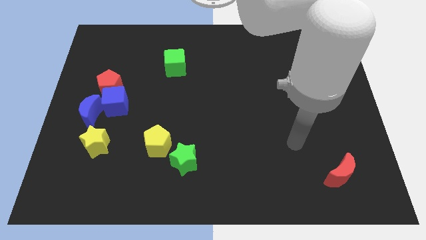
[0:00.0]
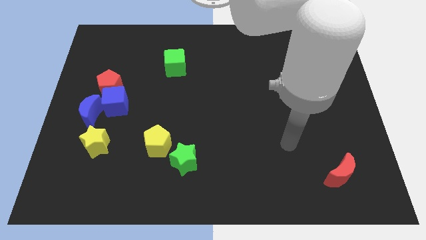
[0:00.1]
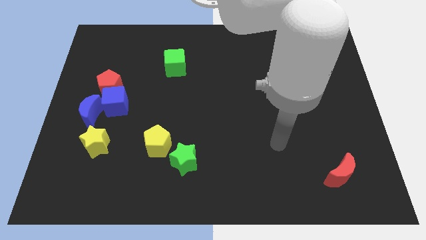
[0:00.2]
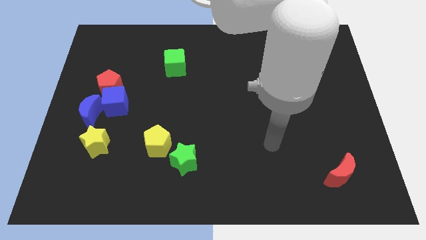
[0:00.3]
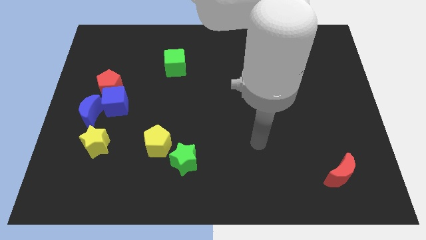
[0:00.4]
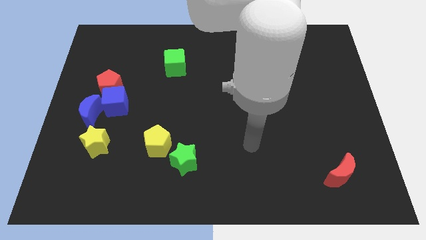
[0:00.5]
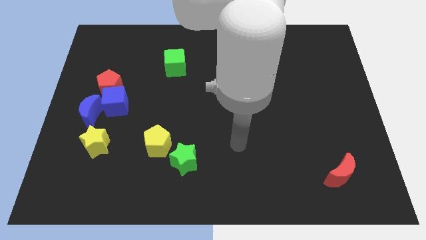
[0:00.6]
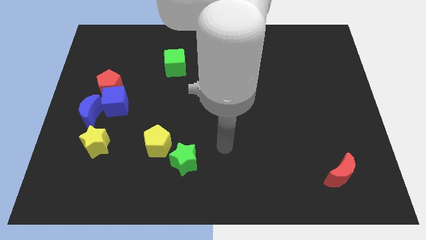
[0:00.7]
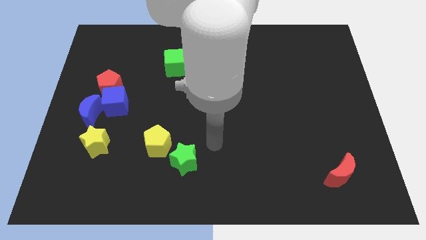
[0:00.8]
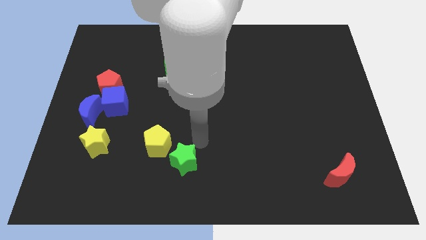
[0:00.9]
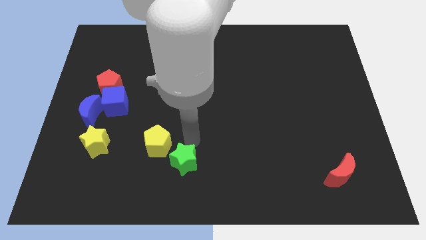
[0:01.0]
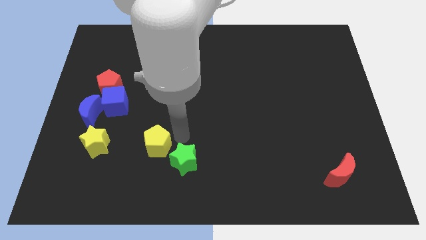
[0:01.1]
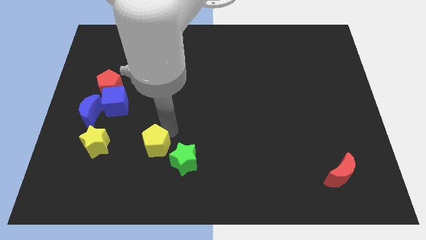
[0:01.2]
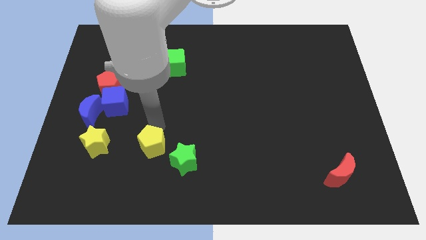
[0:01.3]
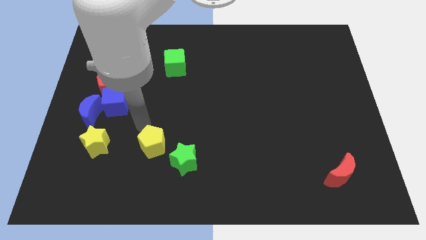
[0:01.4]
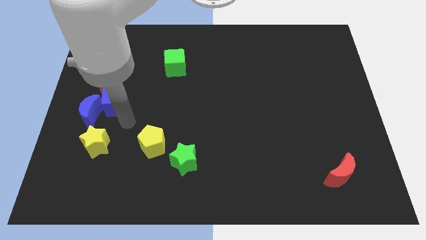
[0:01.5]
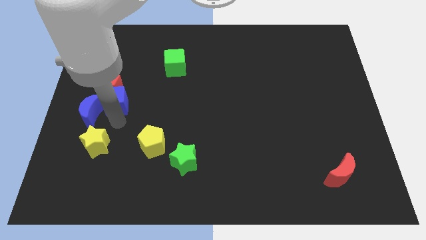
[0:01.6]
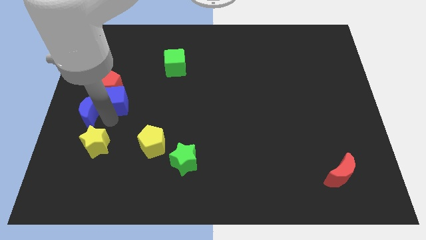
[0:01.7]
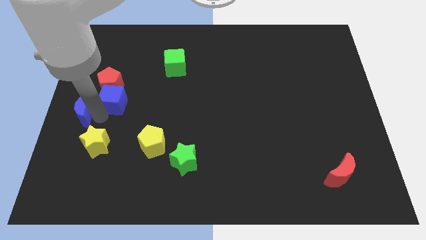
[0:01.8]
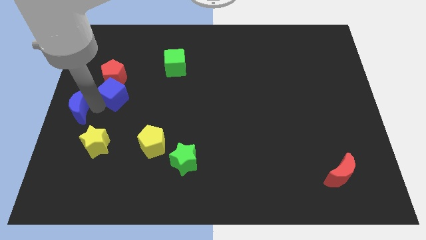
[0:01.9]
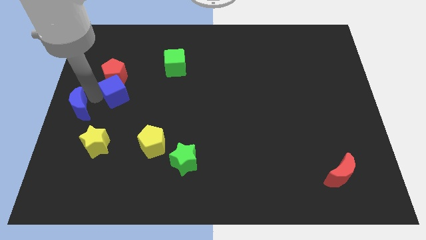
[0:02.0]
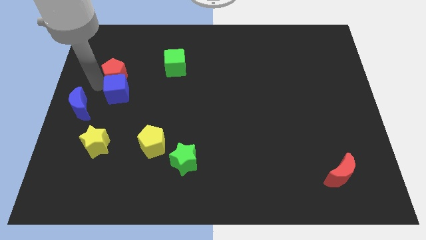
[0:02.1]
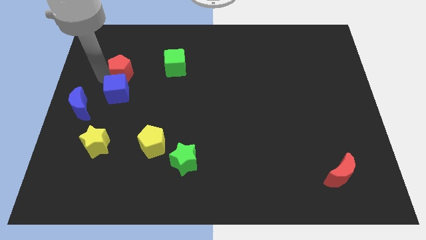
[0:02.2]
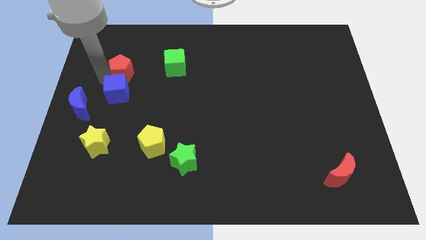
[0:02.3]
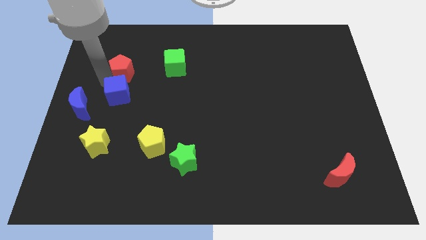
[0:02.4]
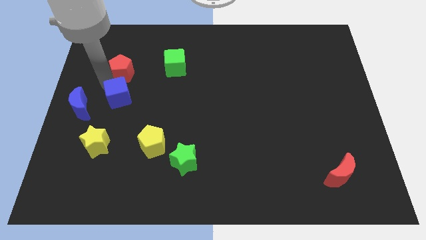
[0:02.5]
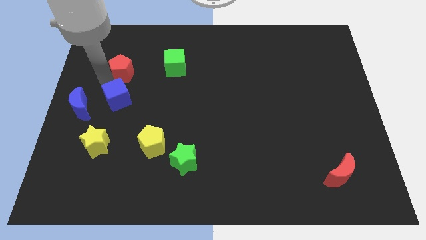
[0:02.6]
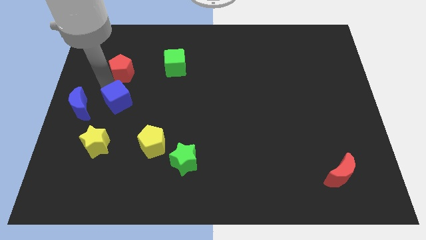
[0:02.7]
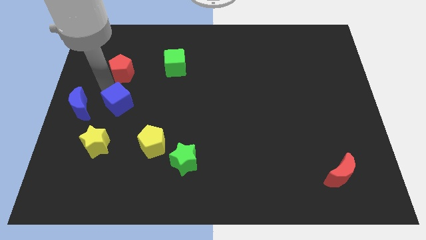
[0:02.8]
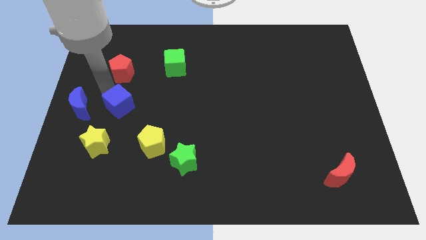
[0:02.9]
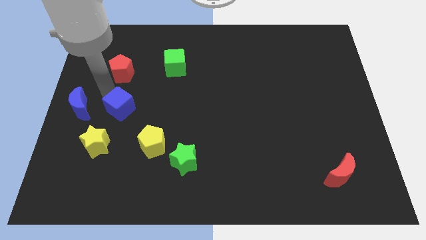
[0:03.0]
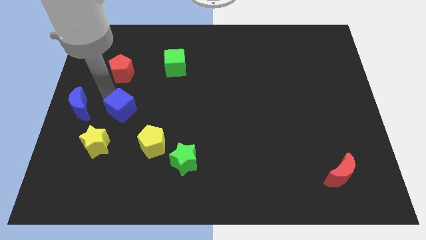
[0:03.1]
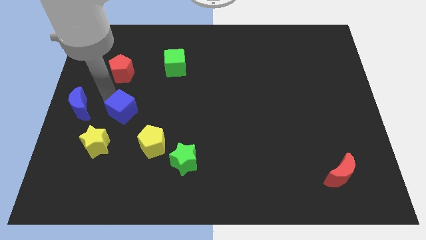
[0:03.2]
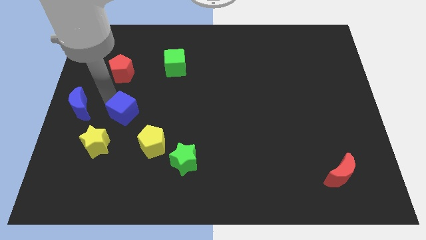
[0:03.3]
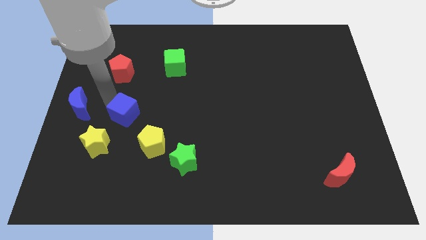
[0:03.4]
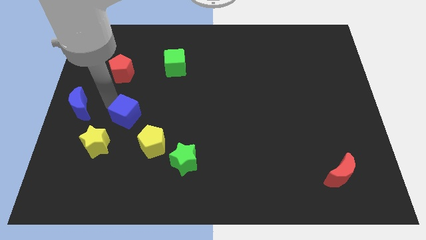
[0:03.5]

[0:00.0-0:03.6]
move the blue cube away from the red pentagon and blue moon

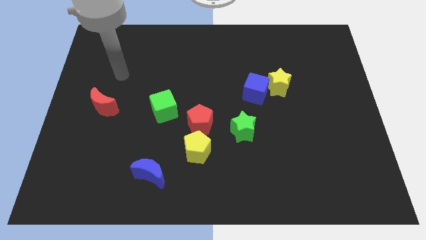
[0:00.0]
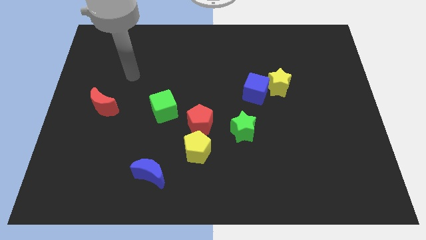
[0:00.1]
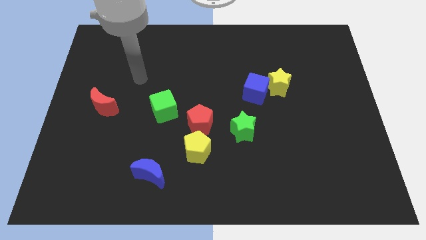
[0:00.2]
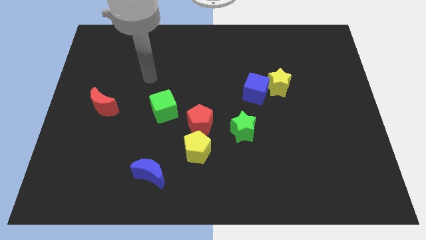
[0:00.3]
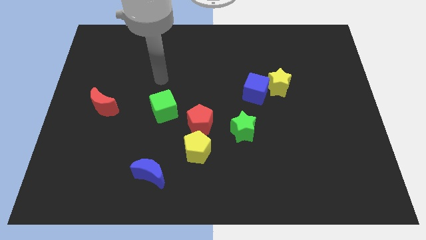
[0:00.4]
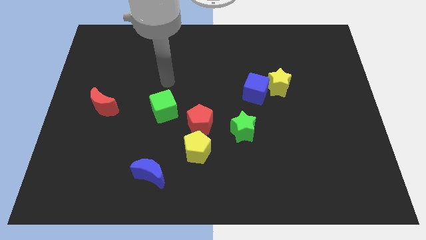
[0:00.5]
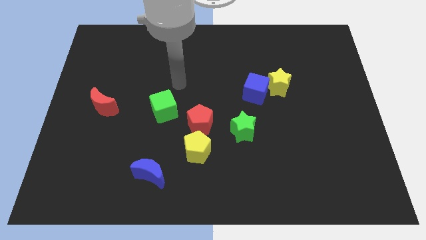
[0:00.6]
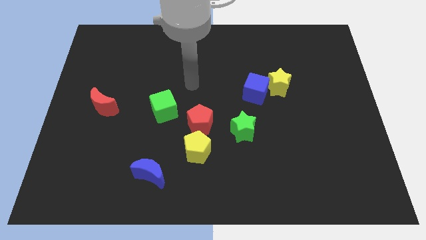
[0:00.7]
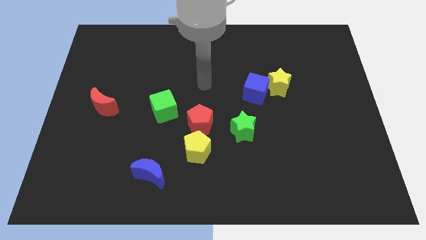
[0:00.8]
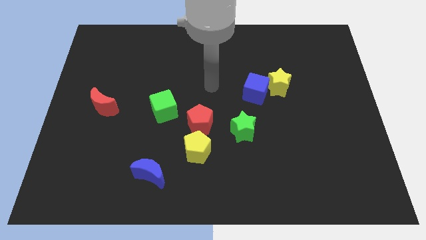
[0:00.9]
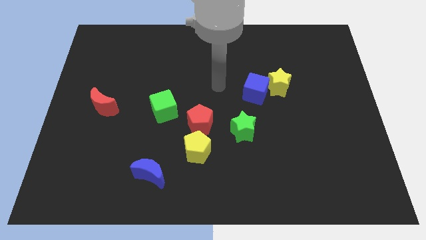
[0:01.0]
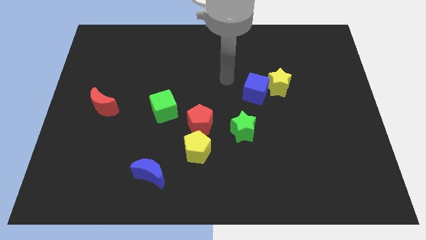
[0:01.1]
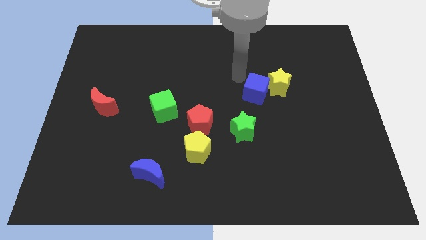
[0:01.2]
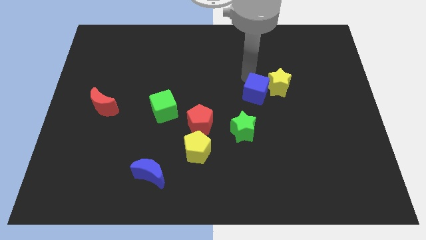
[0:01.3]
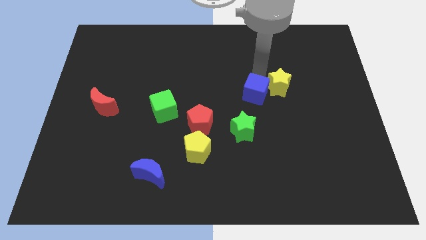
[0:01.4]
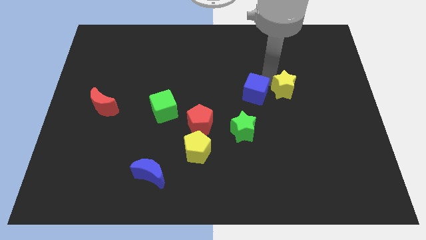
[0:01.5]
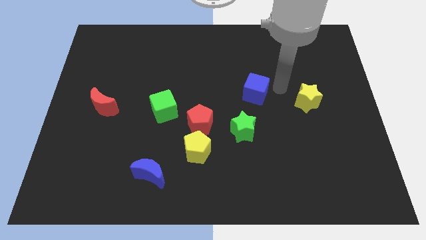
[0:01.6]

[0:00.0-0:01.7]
pull the blue cube apart from the yellow star

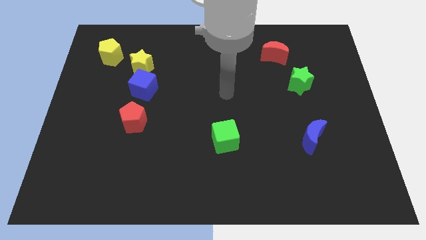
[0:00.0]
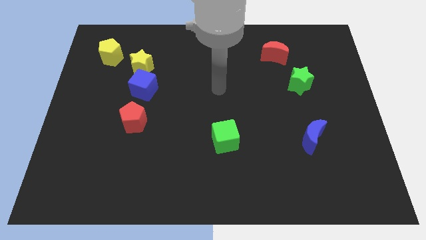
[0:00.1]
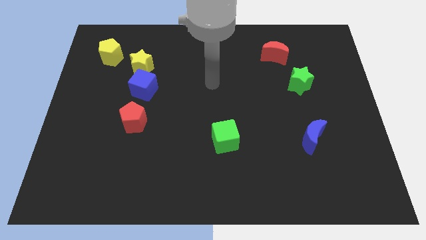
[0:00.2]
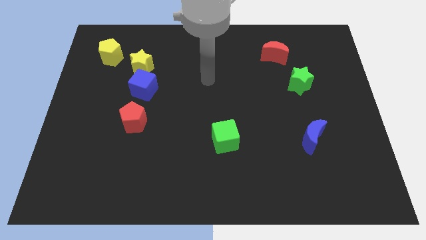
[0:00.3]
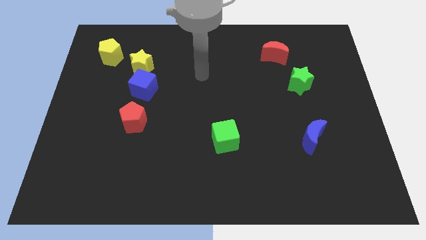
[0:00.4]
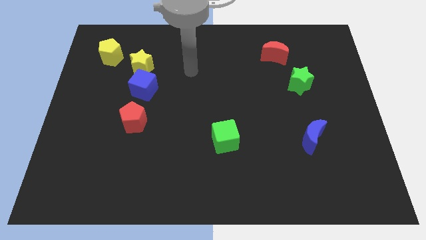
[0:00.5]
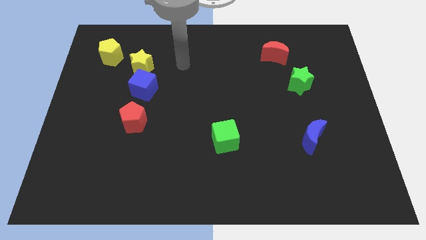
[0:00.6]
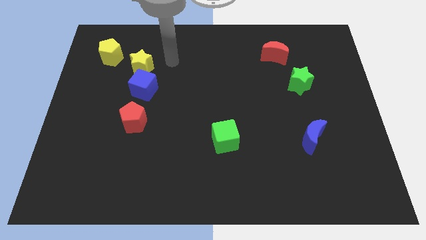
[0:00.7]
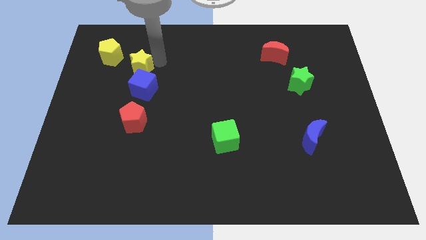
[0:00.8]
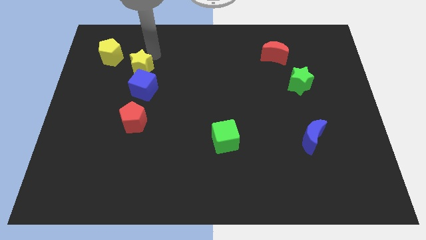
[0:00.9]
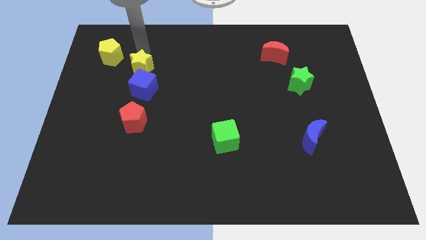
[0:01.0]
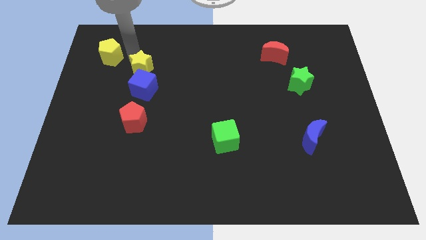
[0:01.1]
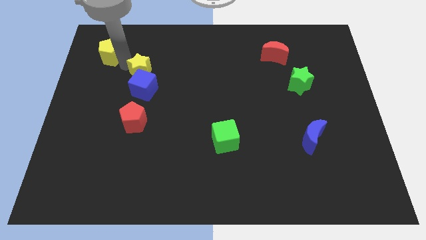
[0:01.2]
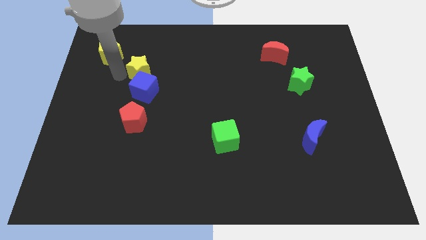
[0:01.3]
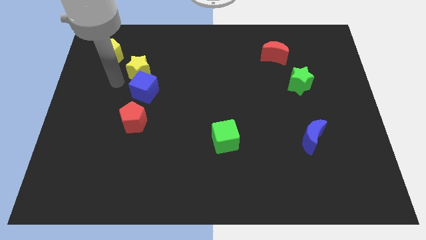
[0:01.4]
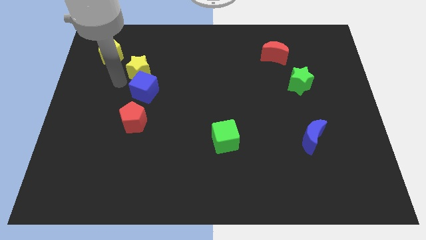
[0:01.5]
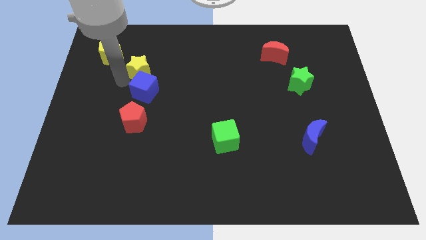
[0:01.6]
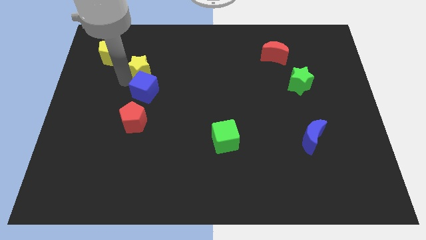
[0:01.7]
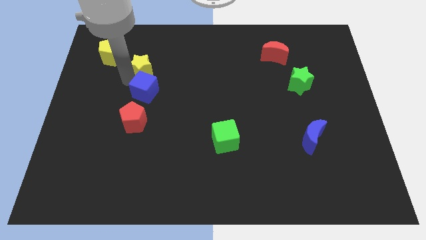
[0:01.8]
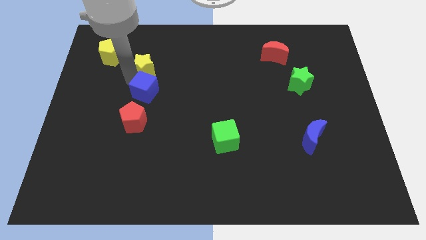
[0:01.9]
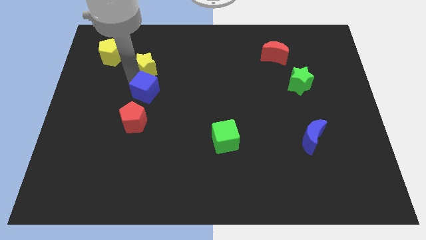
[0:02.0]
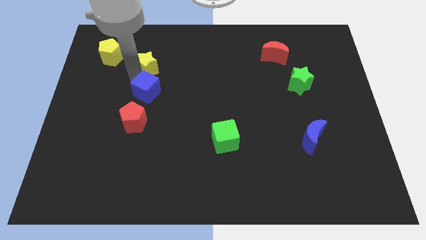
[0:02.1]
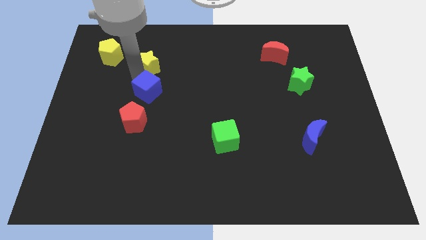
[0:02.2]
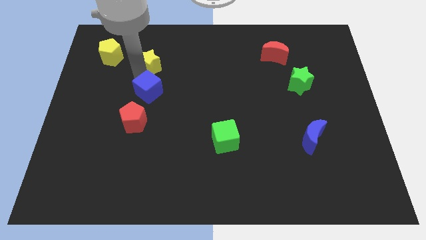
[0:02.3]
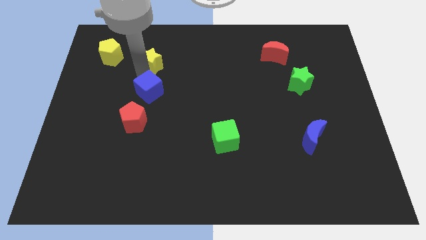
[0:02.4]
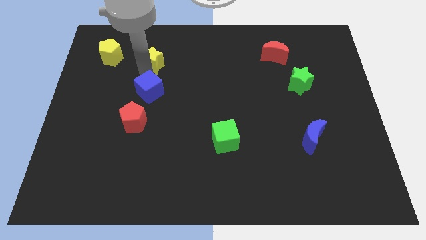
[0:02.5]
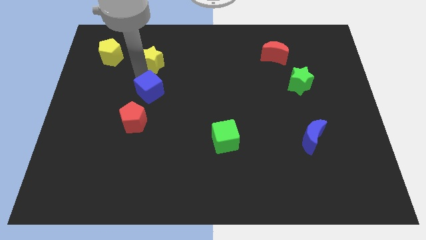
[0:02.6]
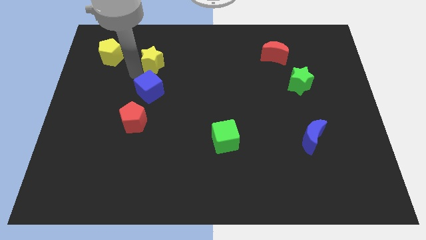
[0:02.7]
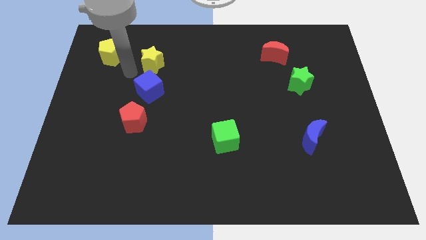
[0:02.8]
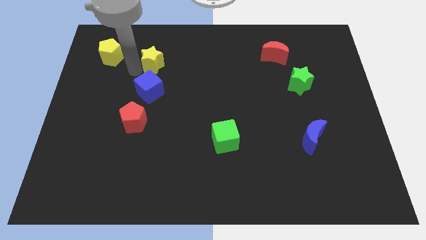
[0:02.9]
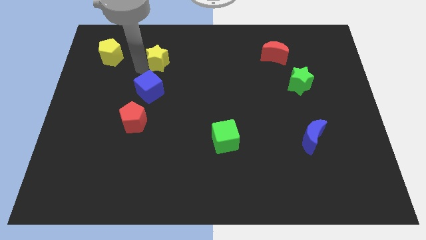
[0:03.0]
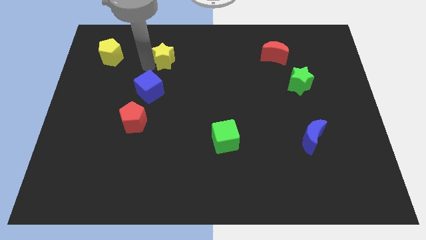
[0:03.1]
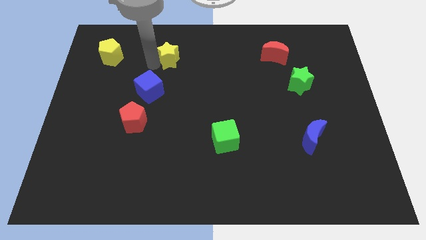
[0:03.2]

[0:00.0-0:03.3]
pull the yellow star apart from the blue cube and yellow pentagon

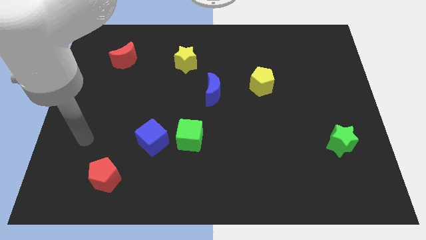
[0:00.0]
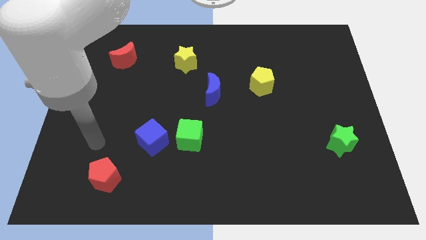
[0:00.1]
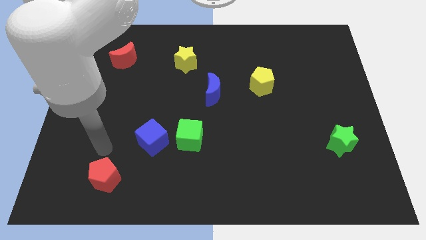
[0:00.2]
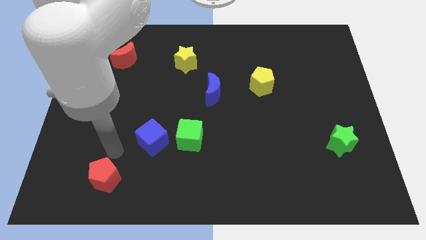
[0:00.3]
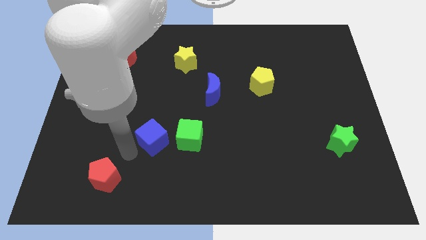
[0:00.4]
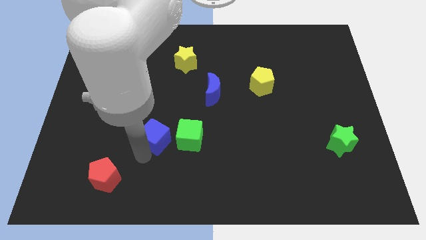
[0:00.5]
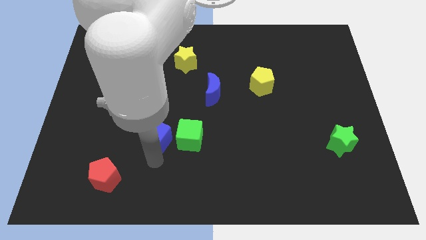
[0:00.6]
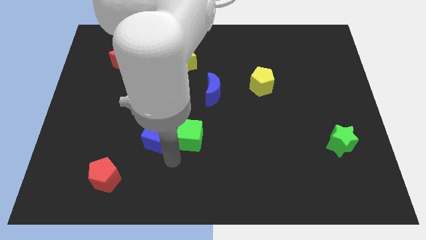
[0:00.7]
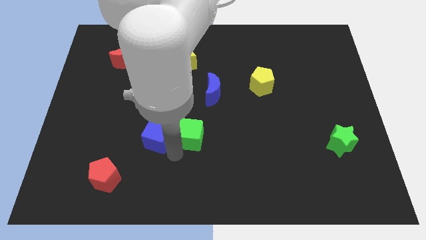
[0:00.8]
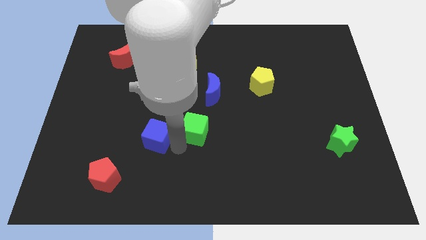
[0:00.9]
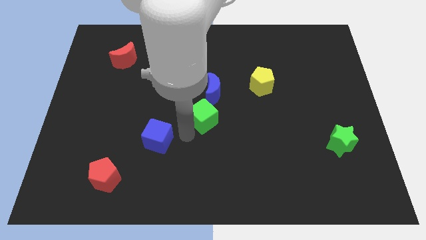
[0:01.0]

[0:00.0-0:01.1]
move the blue cube away from the green cube
